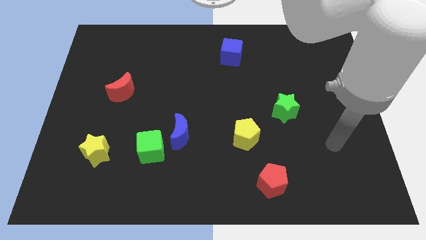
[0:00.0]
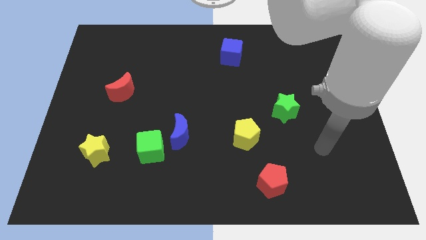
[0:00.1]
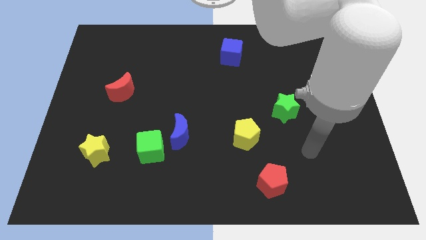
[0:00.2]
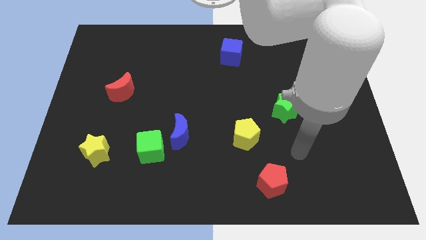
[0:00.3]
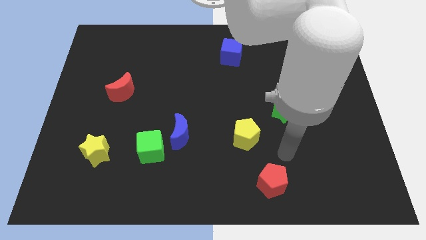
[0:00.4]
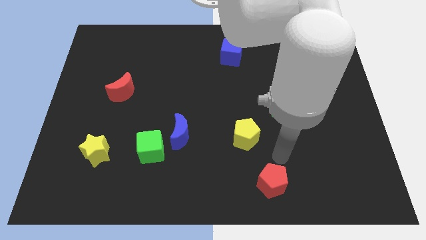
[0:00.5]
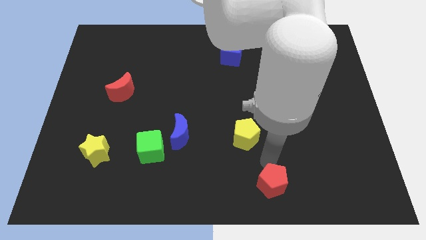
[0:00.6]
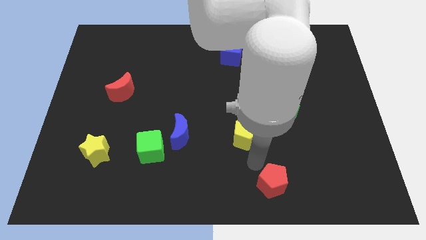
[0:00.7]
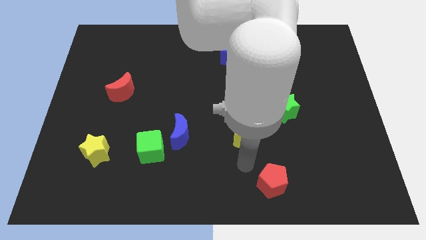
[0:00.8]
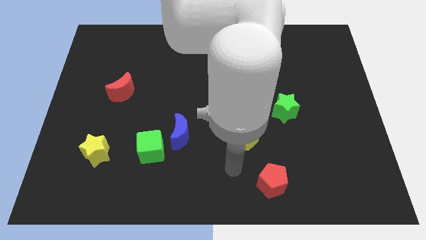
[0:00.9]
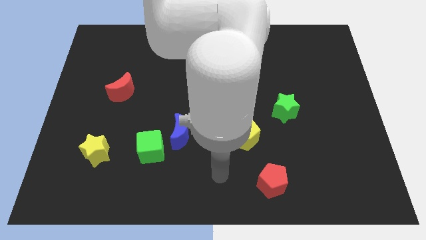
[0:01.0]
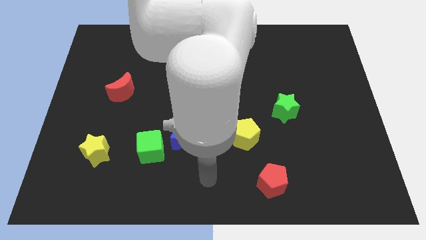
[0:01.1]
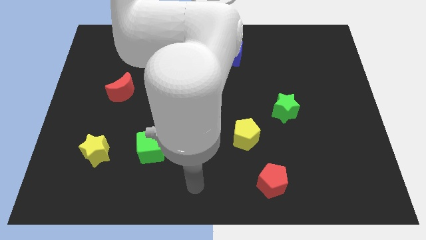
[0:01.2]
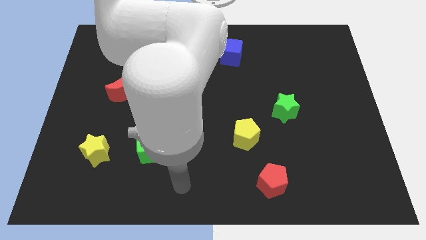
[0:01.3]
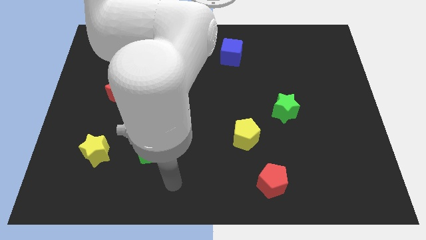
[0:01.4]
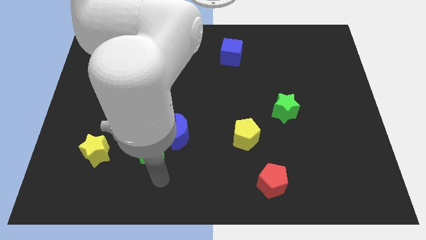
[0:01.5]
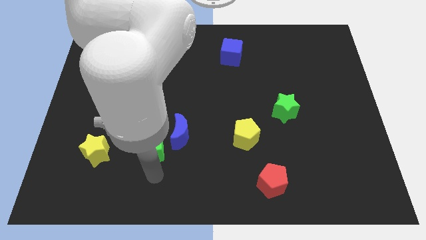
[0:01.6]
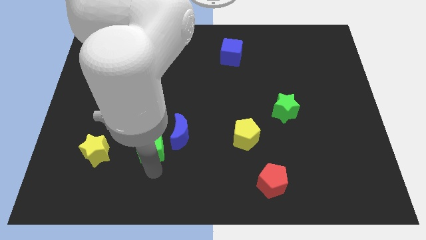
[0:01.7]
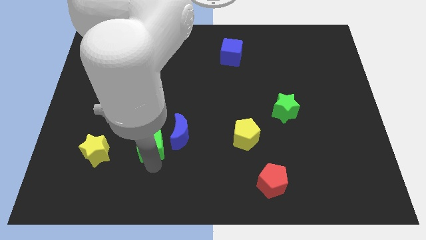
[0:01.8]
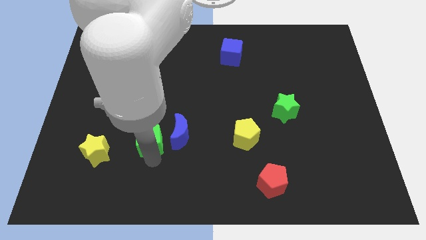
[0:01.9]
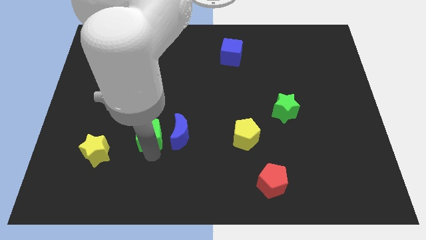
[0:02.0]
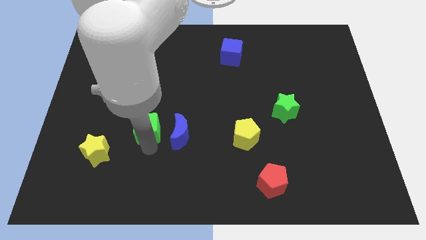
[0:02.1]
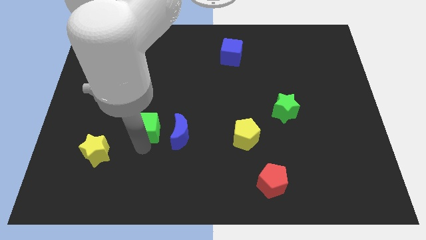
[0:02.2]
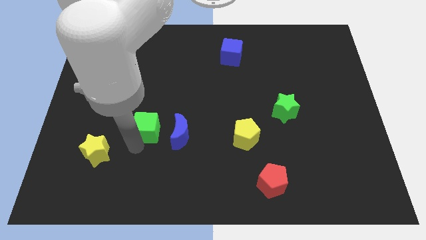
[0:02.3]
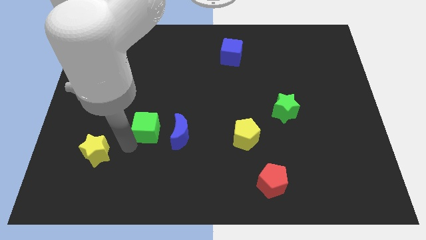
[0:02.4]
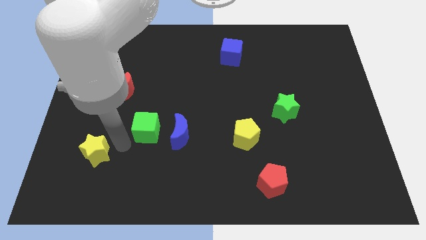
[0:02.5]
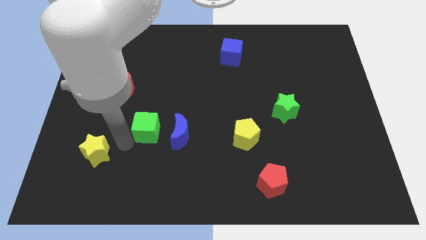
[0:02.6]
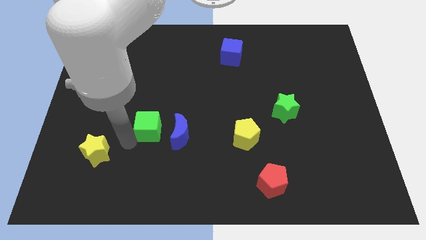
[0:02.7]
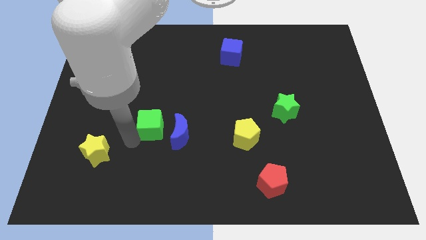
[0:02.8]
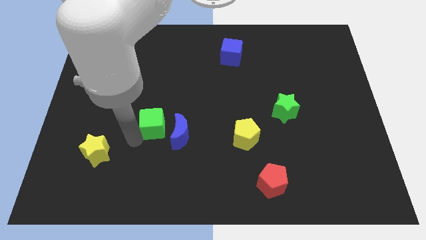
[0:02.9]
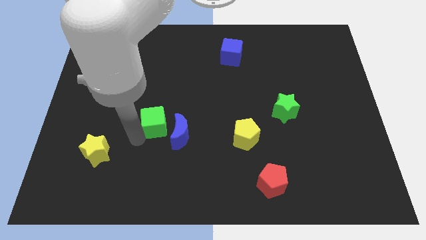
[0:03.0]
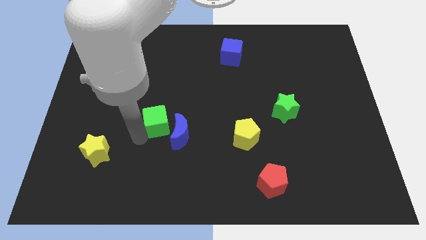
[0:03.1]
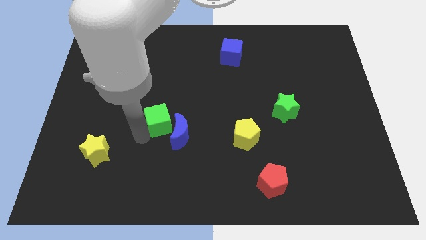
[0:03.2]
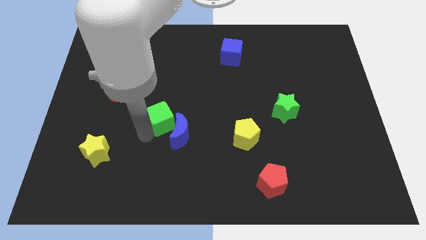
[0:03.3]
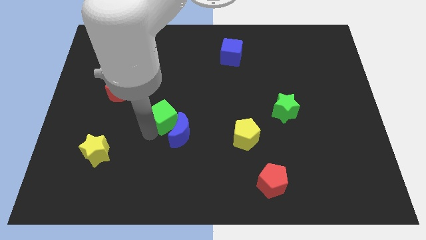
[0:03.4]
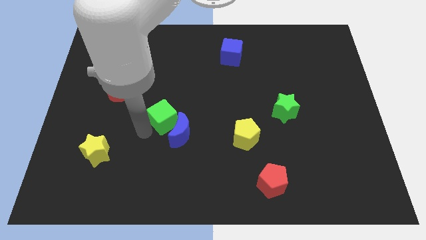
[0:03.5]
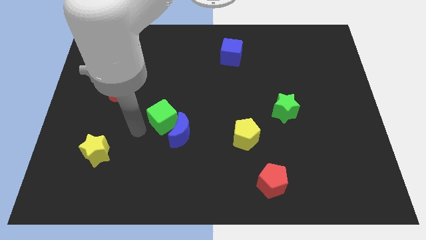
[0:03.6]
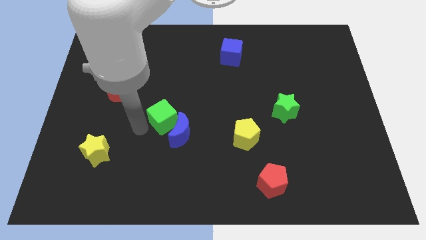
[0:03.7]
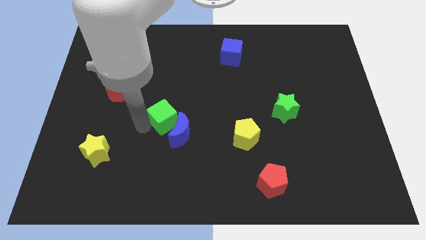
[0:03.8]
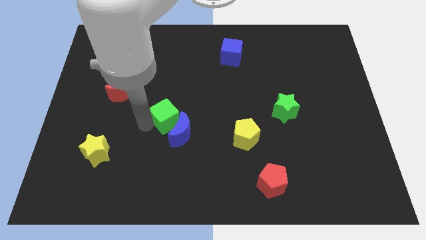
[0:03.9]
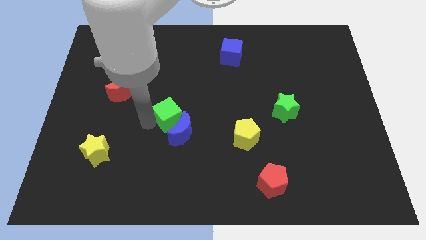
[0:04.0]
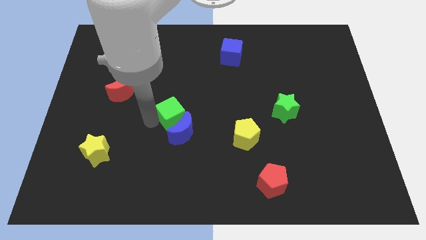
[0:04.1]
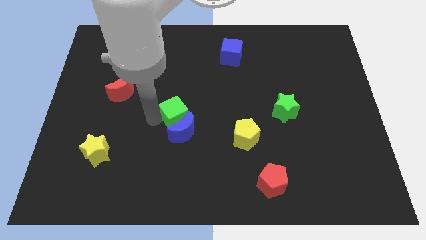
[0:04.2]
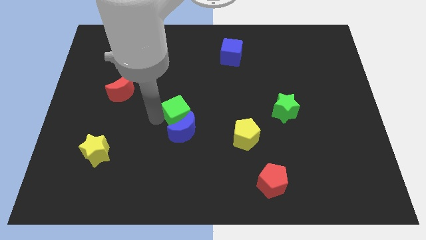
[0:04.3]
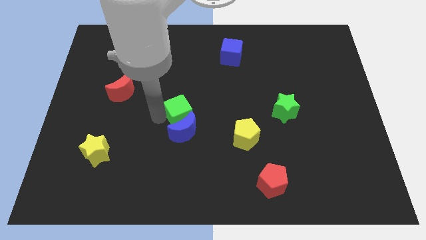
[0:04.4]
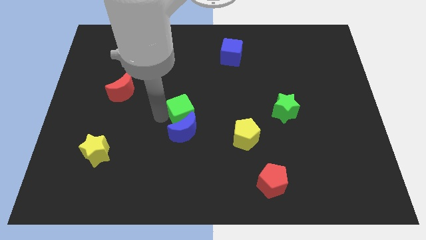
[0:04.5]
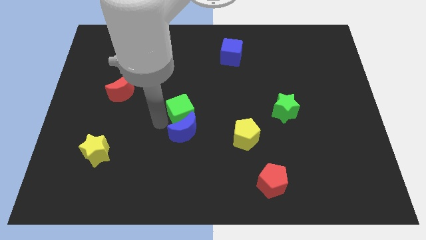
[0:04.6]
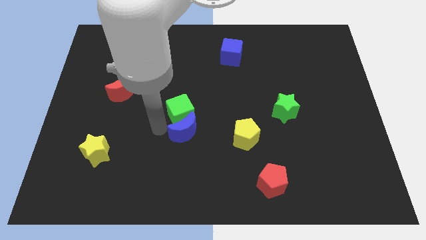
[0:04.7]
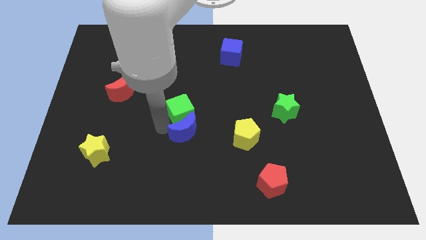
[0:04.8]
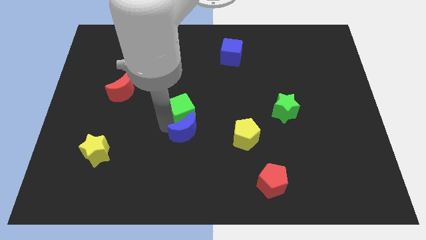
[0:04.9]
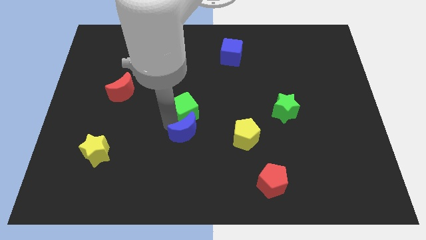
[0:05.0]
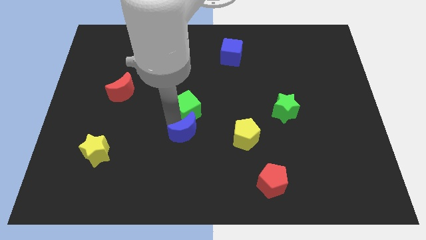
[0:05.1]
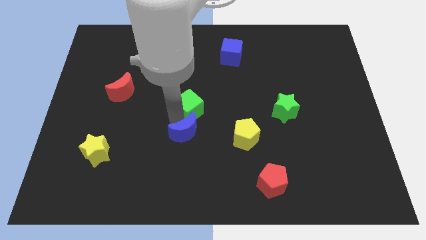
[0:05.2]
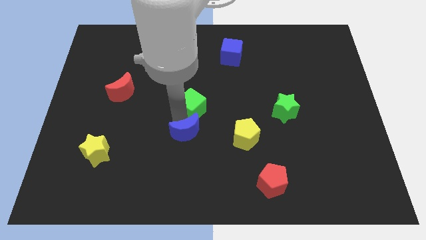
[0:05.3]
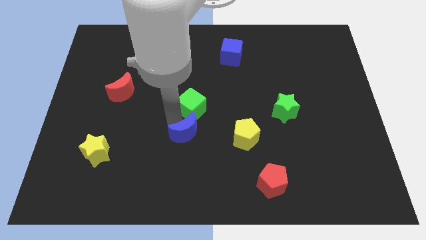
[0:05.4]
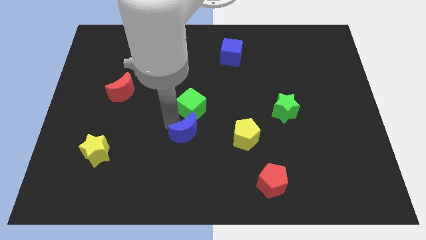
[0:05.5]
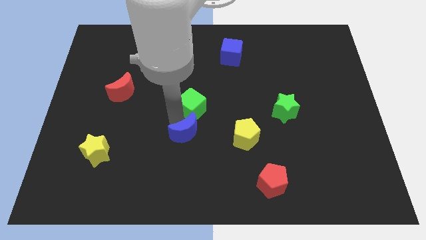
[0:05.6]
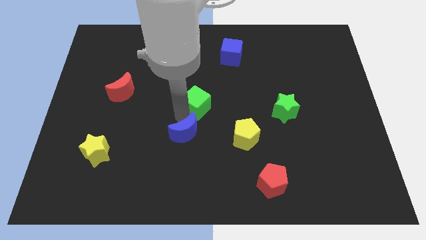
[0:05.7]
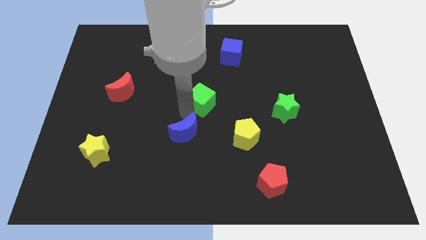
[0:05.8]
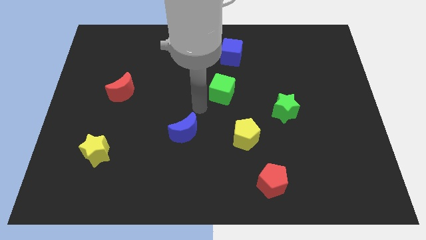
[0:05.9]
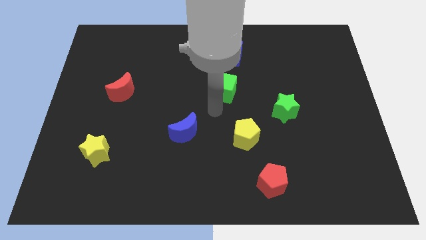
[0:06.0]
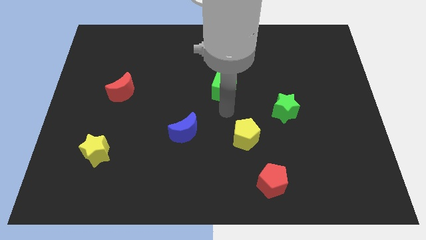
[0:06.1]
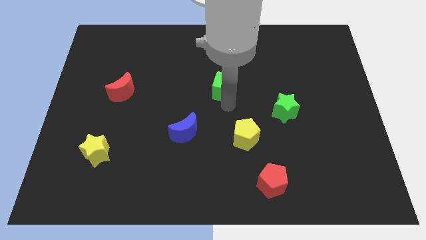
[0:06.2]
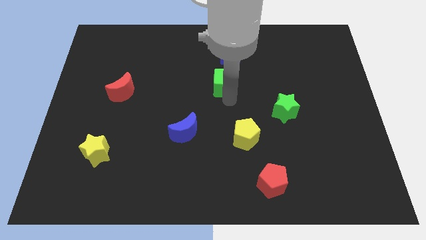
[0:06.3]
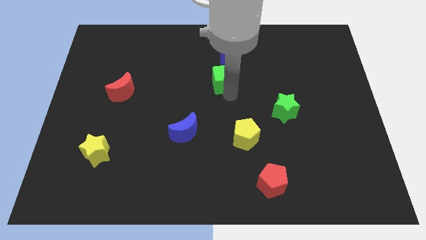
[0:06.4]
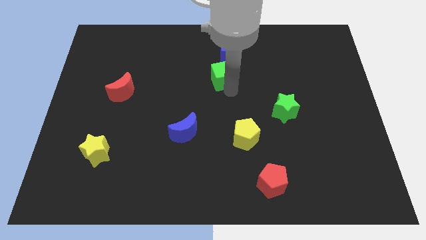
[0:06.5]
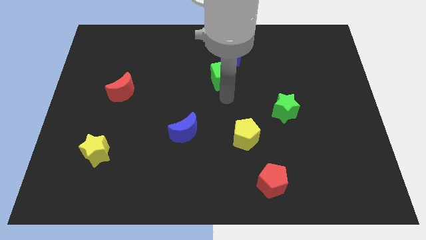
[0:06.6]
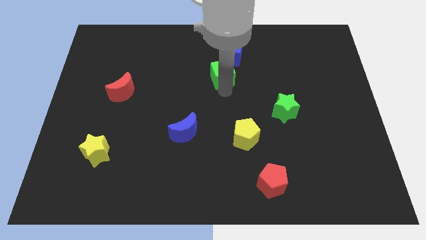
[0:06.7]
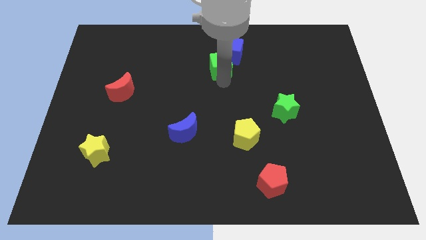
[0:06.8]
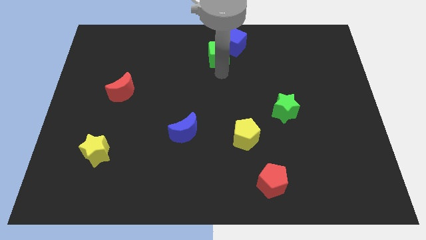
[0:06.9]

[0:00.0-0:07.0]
put the green cube to the top side
